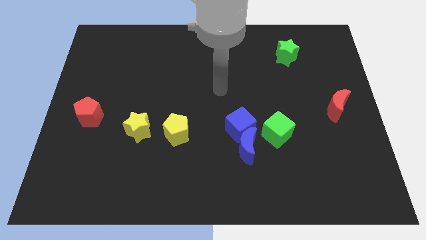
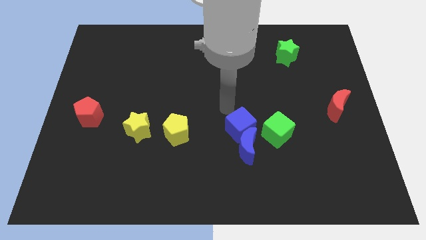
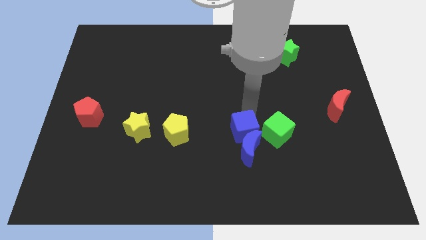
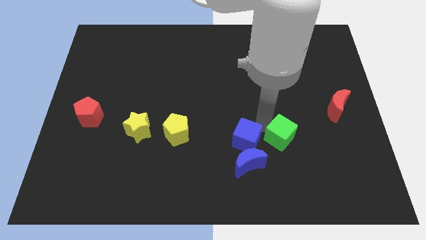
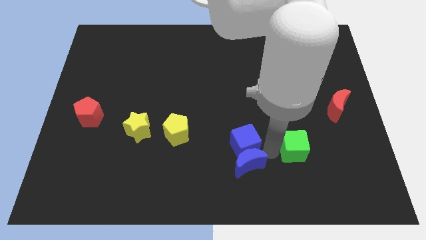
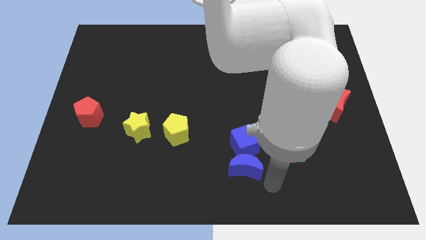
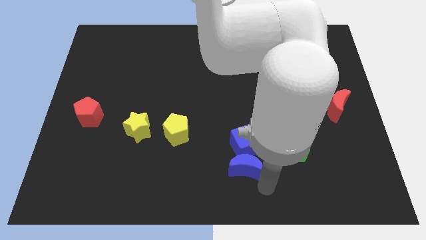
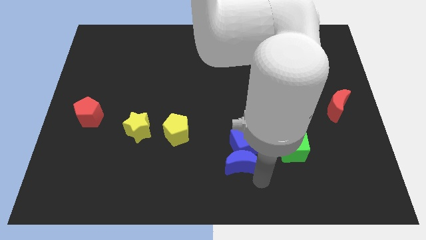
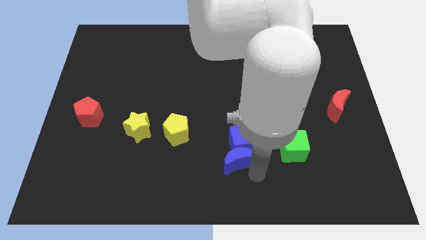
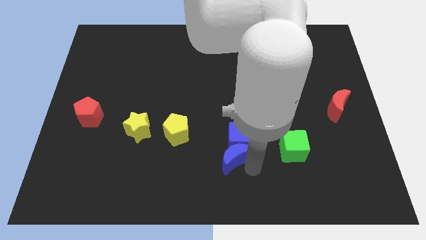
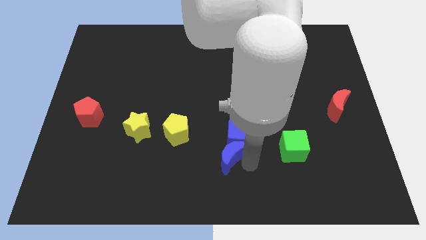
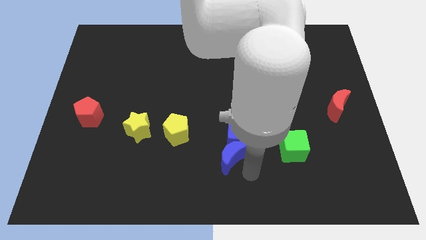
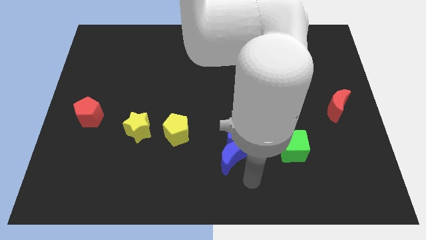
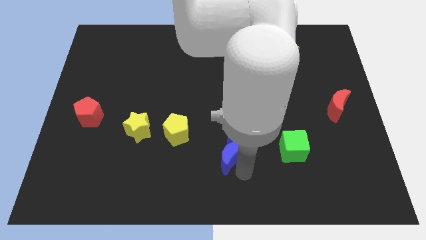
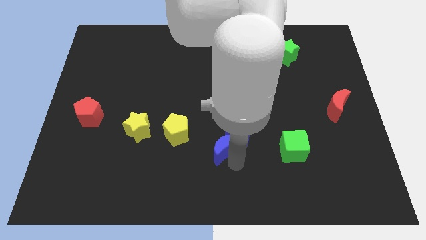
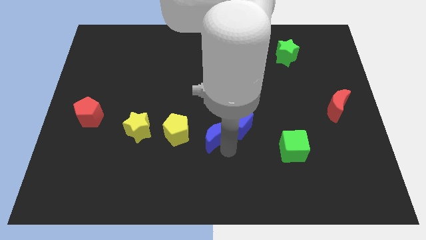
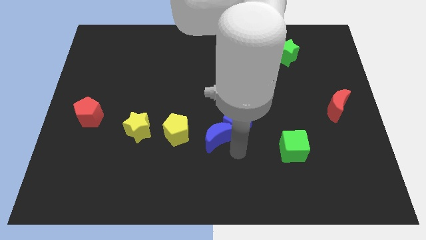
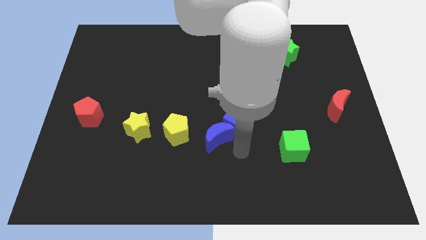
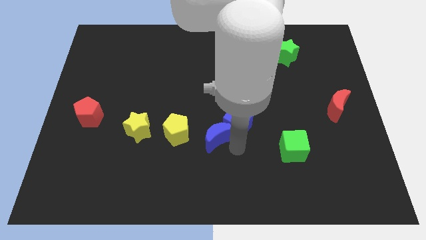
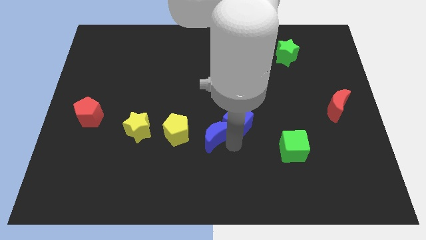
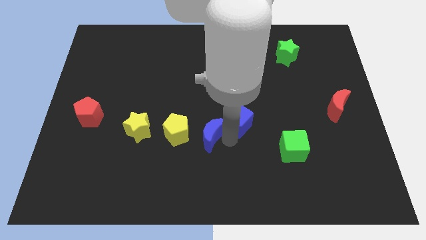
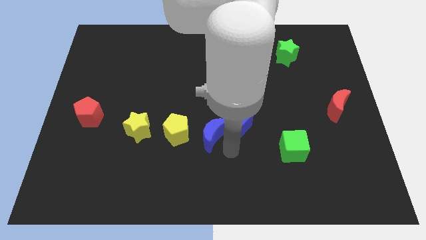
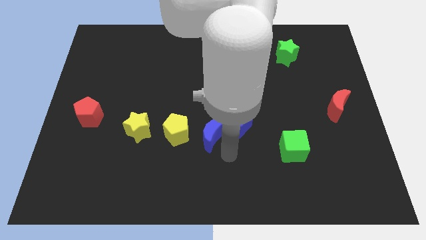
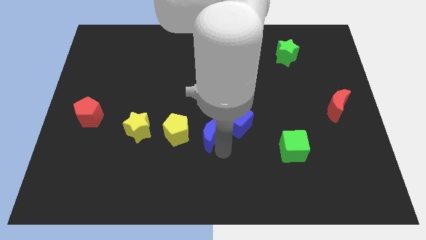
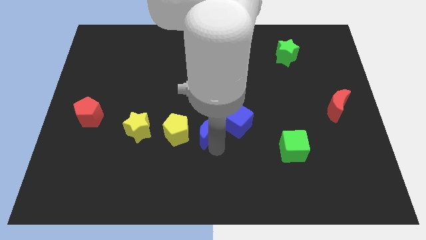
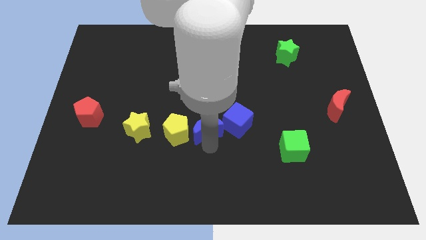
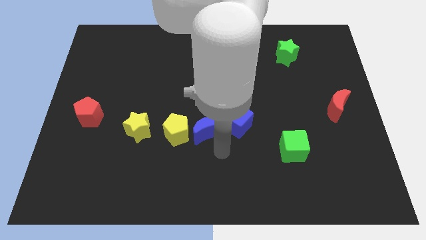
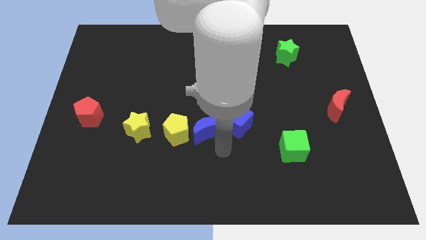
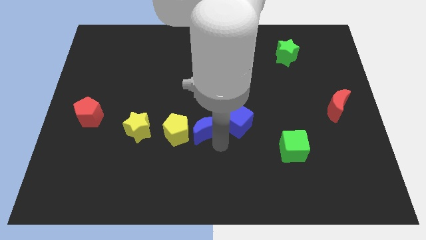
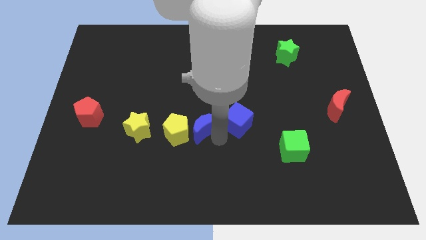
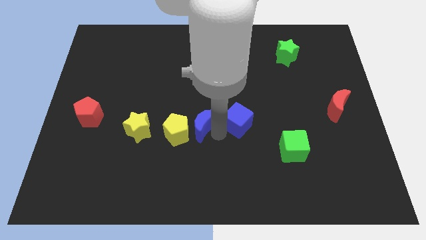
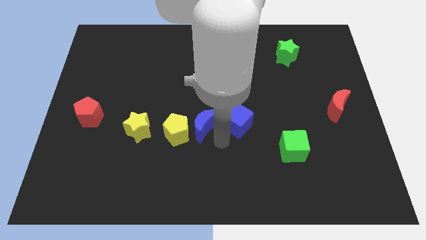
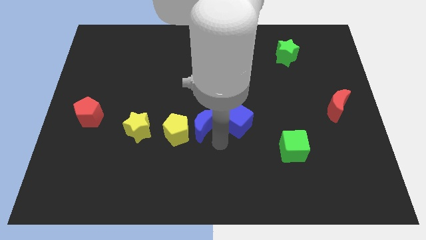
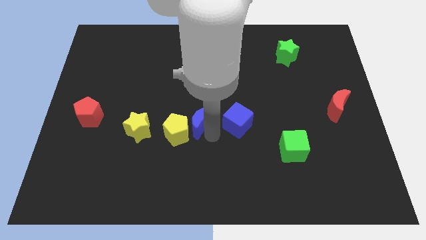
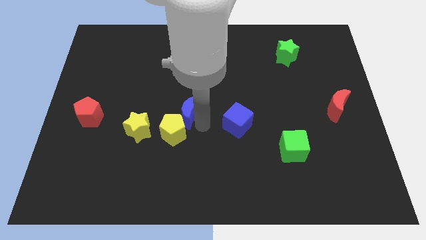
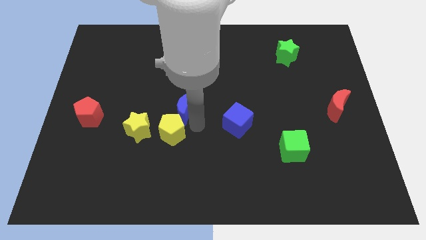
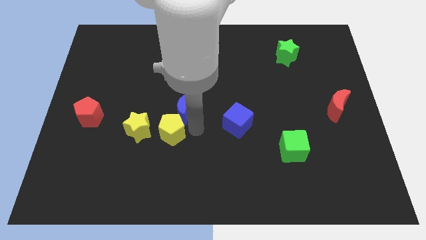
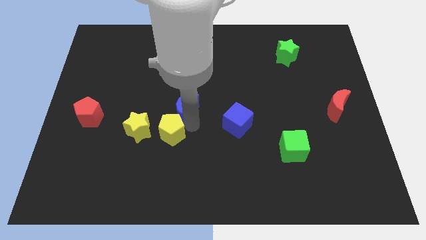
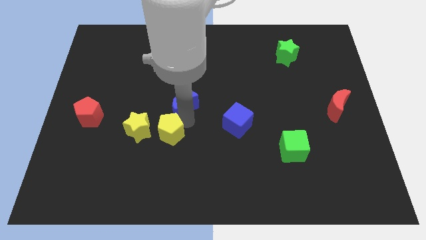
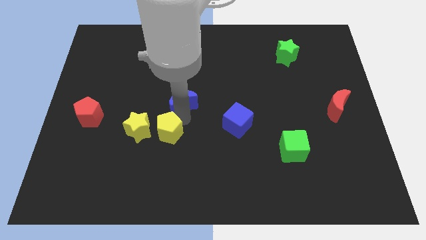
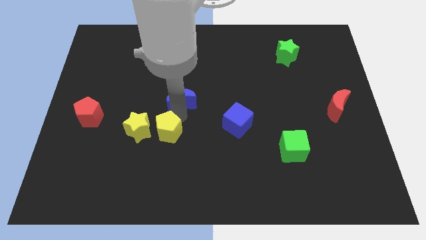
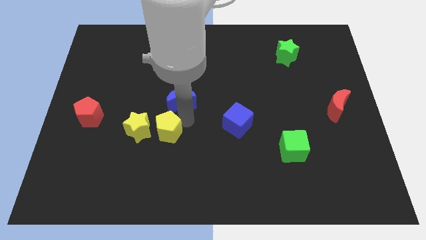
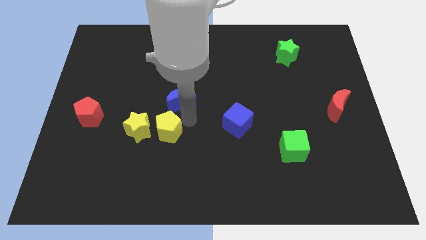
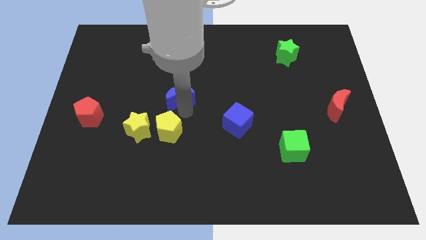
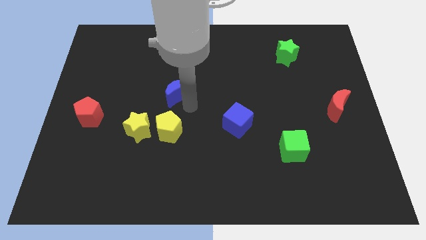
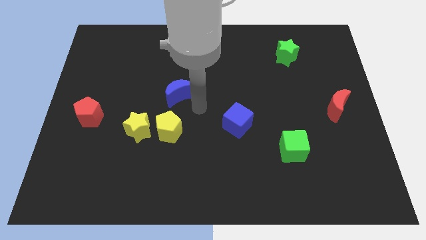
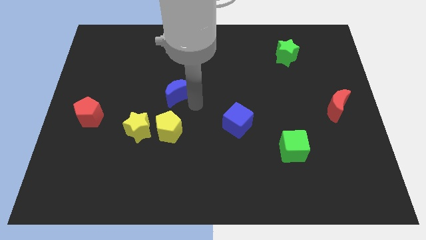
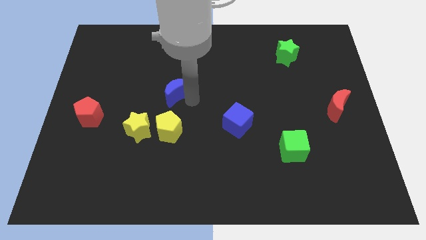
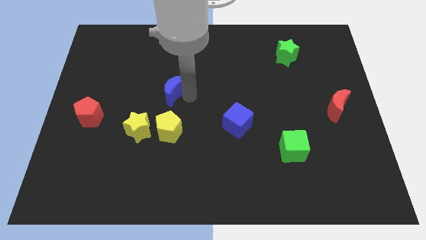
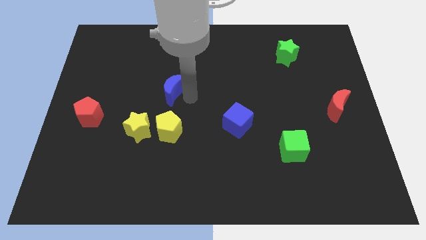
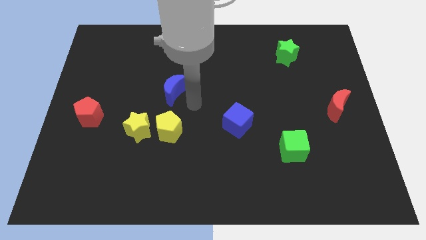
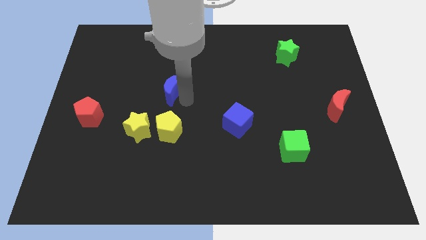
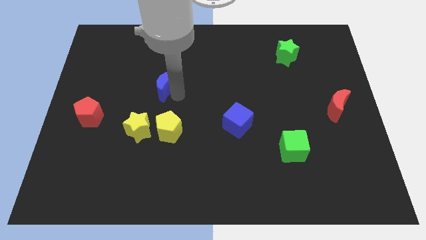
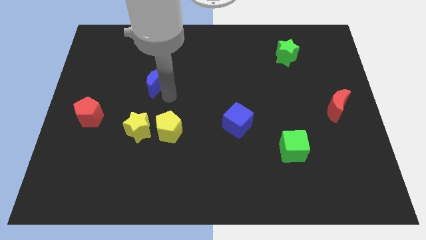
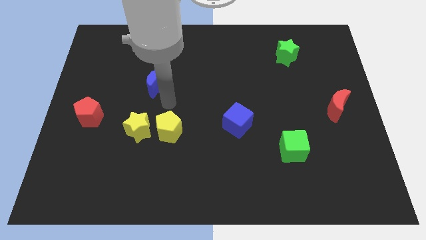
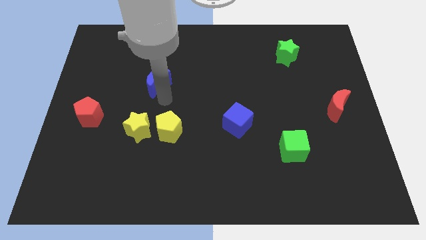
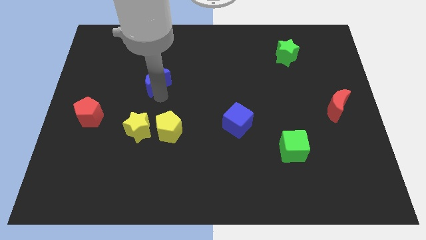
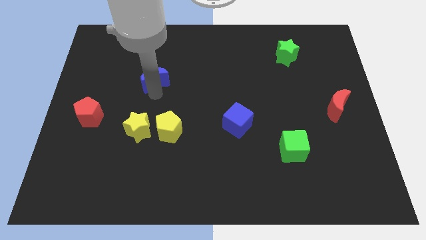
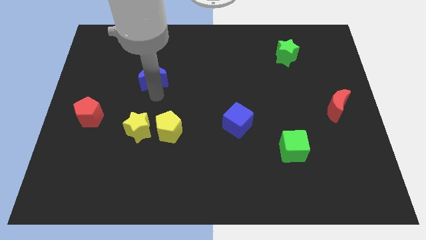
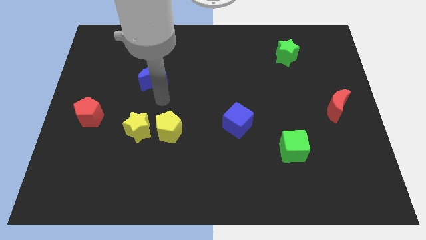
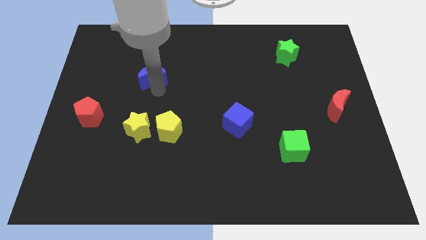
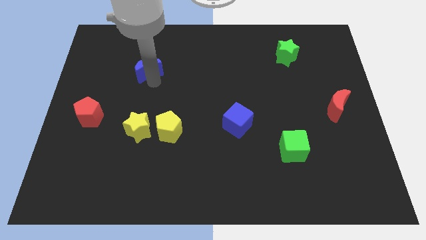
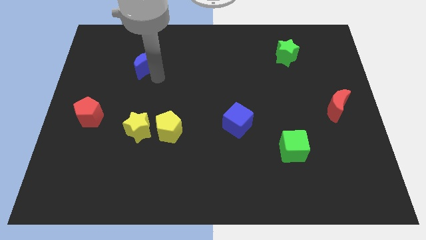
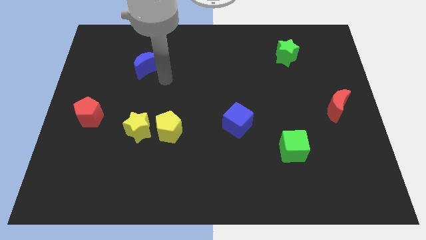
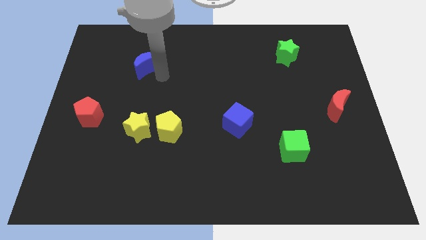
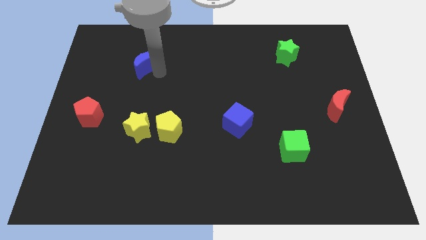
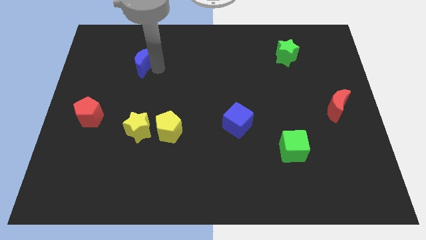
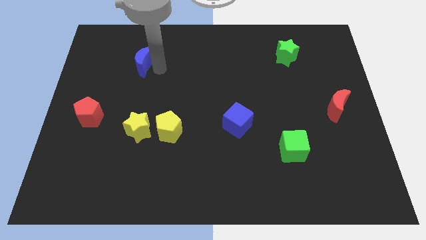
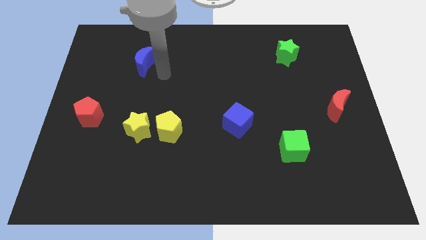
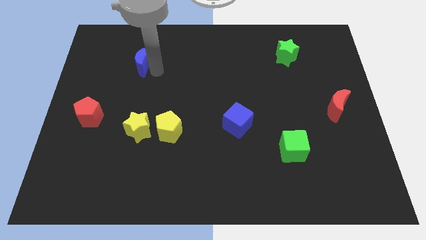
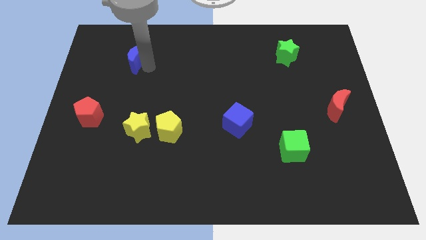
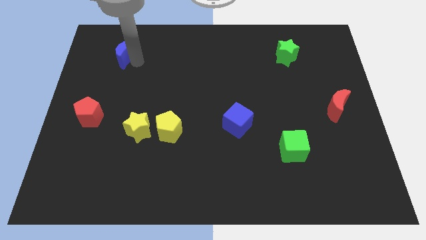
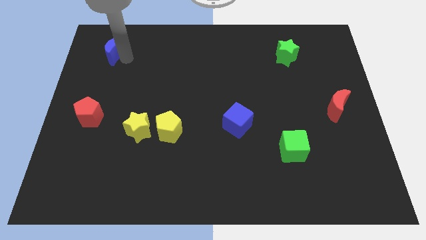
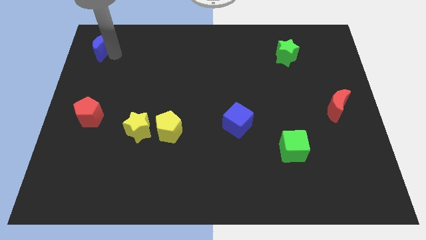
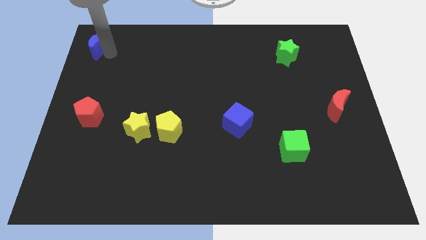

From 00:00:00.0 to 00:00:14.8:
put the blue moon to the upper left corner
